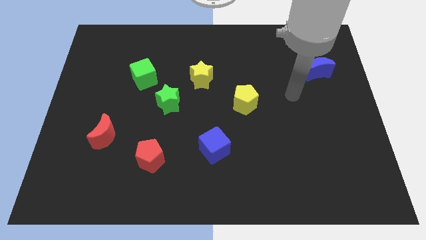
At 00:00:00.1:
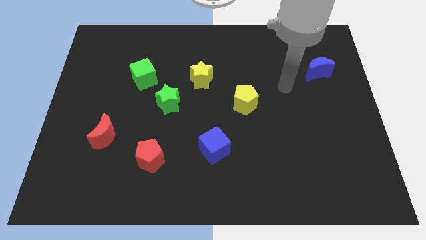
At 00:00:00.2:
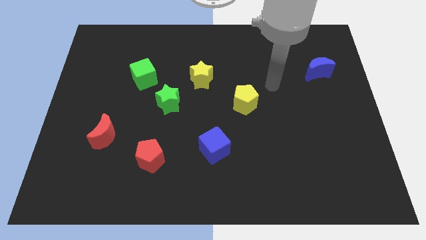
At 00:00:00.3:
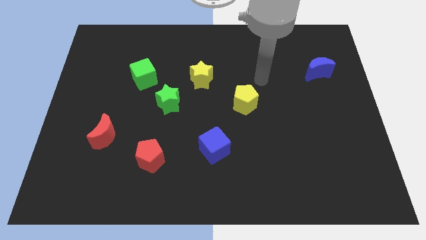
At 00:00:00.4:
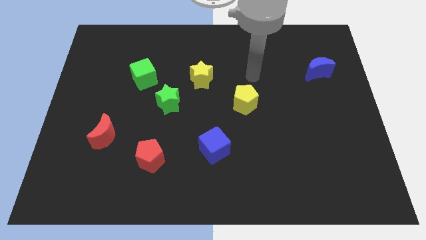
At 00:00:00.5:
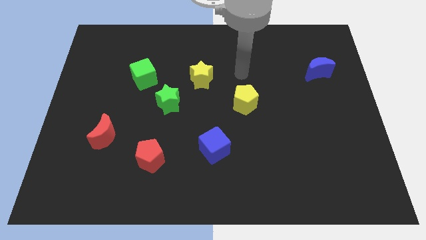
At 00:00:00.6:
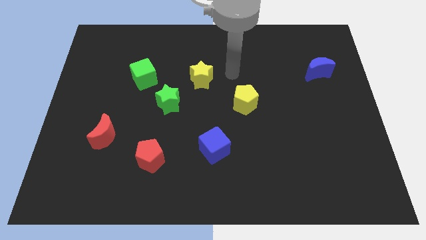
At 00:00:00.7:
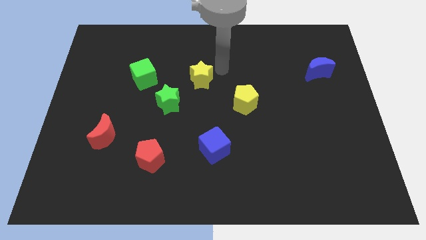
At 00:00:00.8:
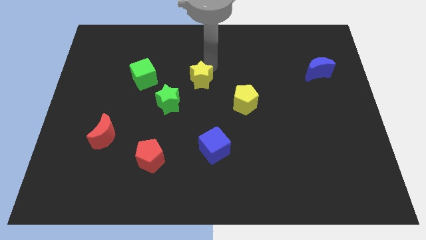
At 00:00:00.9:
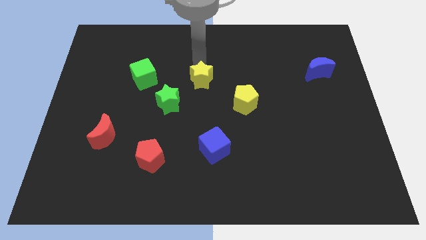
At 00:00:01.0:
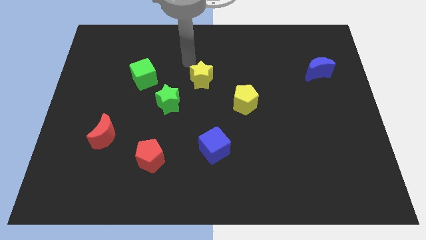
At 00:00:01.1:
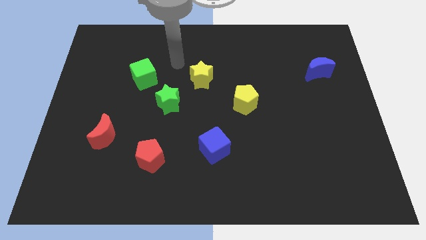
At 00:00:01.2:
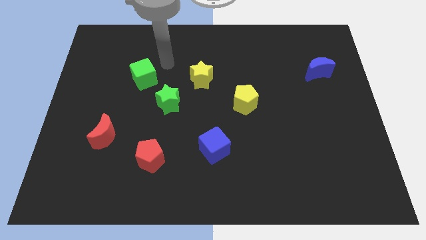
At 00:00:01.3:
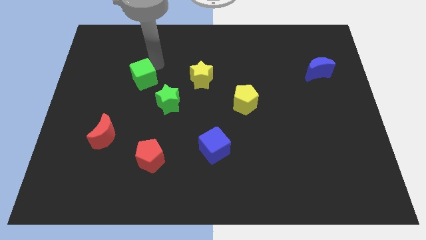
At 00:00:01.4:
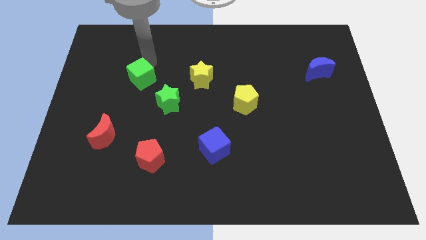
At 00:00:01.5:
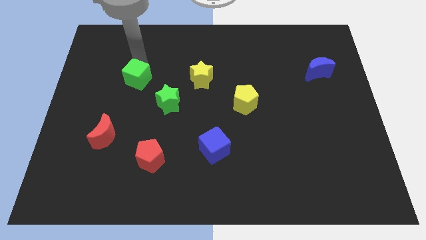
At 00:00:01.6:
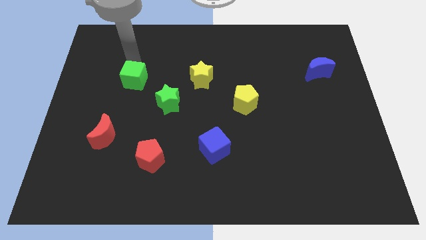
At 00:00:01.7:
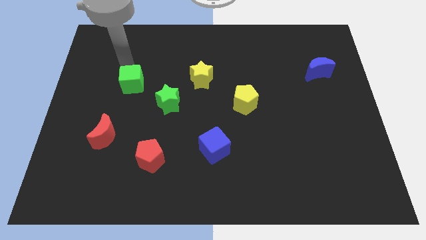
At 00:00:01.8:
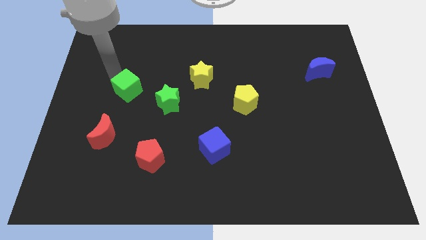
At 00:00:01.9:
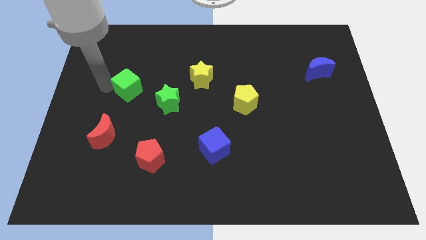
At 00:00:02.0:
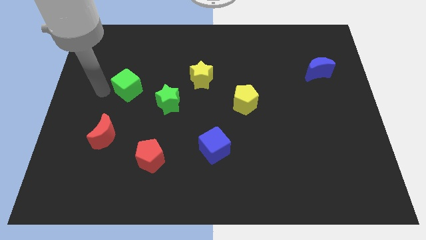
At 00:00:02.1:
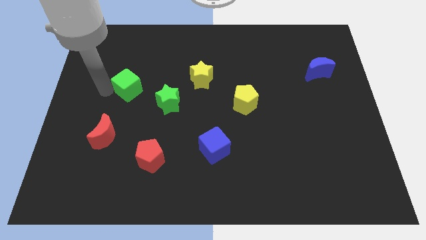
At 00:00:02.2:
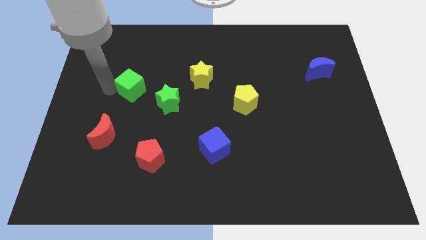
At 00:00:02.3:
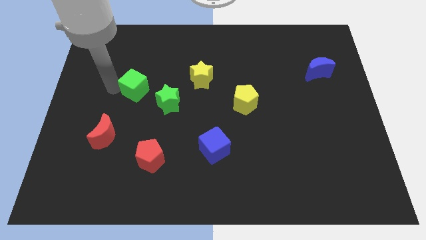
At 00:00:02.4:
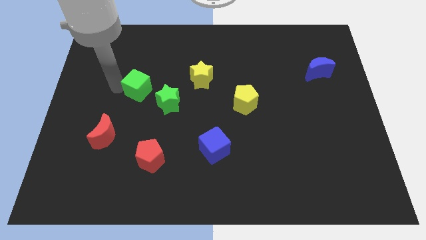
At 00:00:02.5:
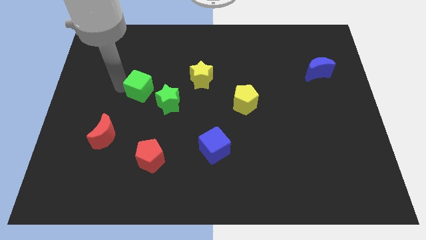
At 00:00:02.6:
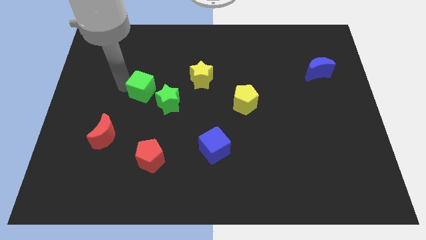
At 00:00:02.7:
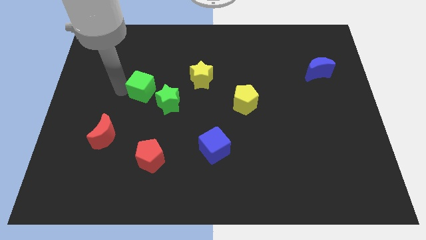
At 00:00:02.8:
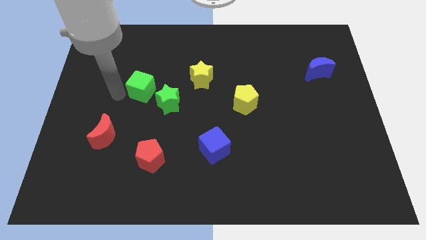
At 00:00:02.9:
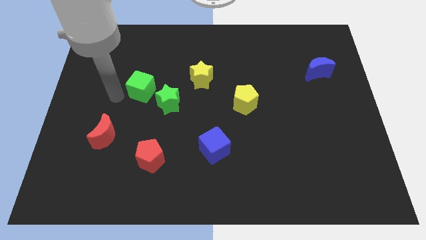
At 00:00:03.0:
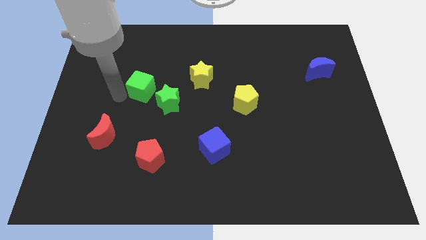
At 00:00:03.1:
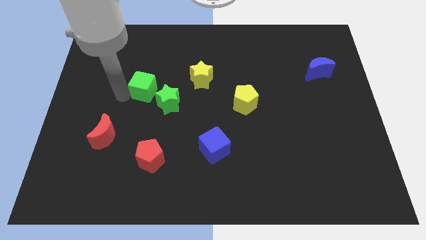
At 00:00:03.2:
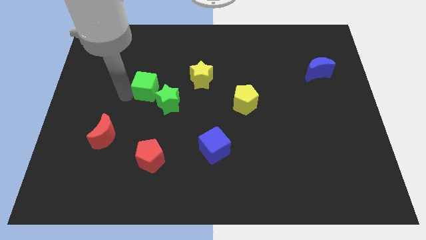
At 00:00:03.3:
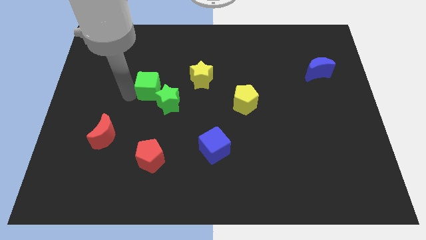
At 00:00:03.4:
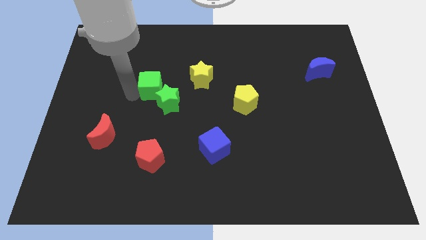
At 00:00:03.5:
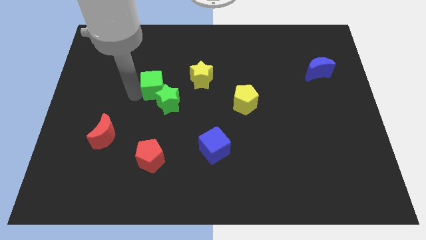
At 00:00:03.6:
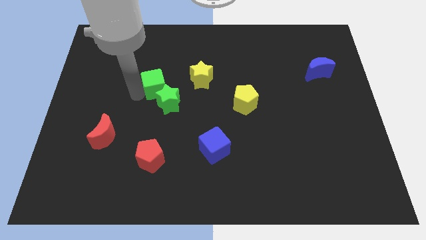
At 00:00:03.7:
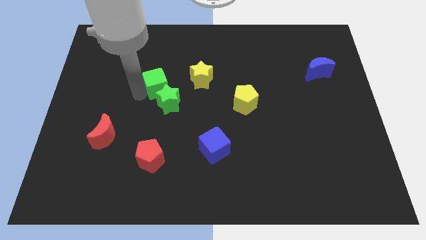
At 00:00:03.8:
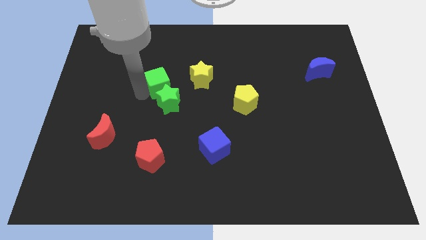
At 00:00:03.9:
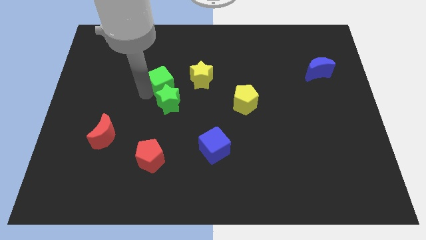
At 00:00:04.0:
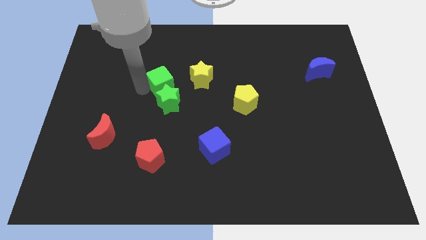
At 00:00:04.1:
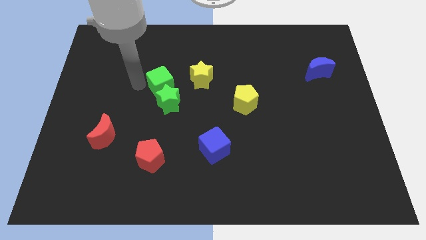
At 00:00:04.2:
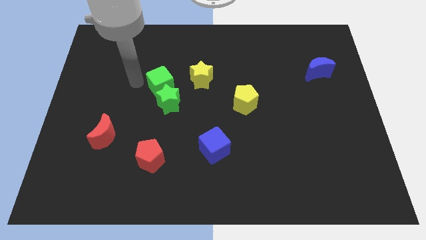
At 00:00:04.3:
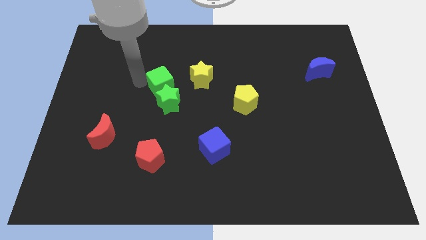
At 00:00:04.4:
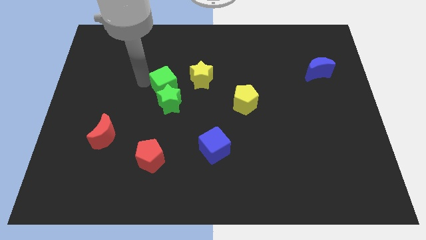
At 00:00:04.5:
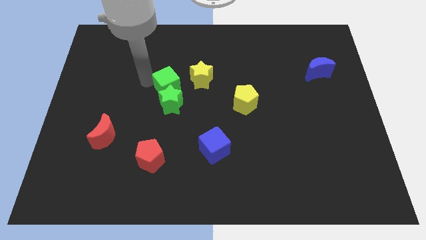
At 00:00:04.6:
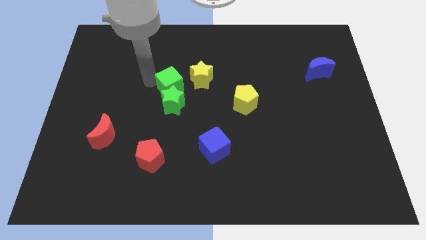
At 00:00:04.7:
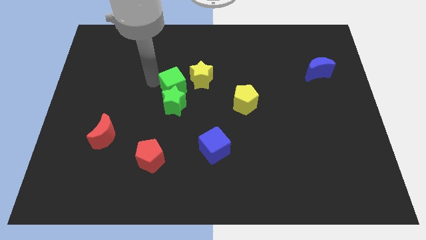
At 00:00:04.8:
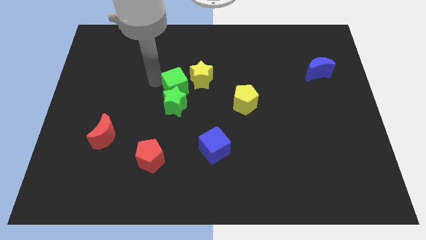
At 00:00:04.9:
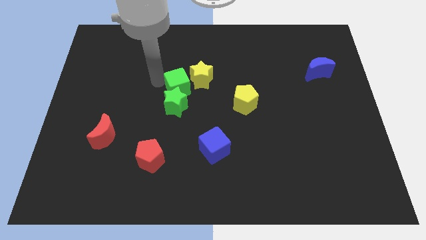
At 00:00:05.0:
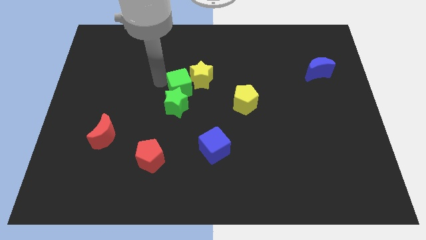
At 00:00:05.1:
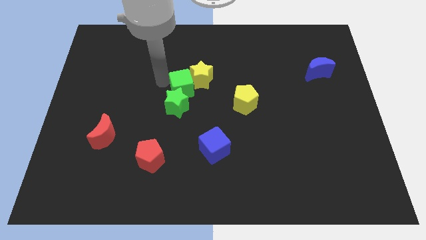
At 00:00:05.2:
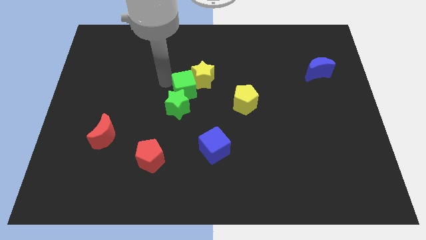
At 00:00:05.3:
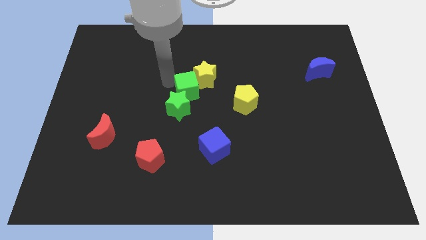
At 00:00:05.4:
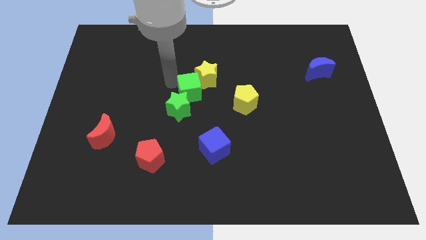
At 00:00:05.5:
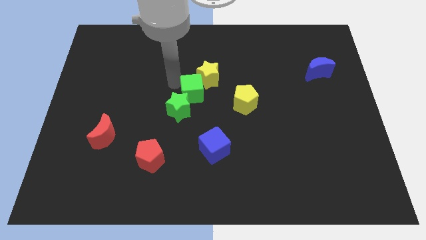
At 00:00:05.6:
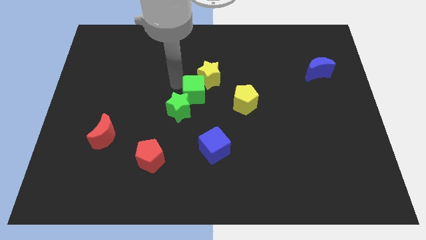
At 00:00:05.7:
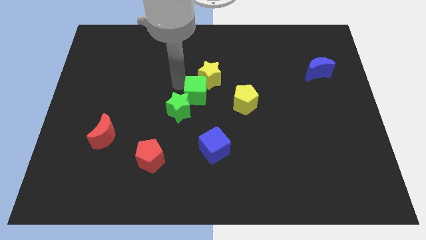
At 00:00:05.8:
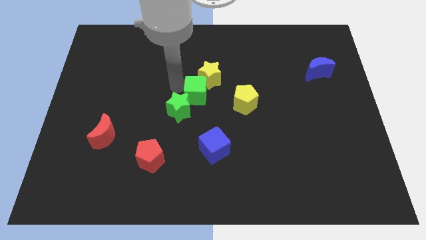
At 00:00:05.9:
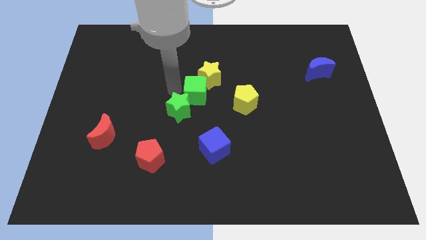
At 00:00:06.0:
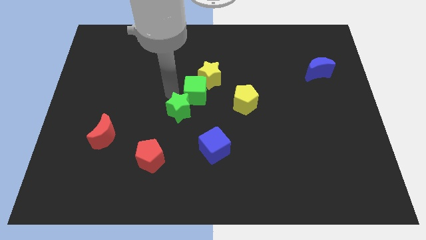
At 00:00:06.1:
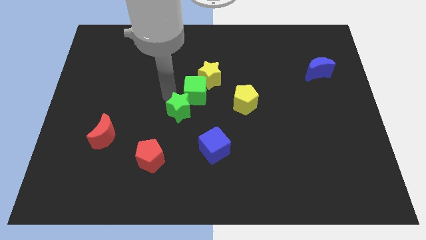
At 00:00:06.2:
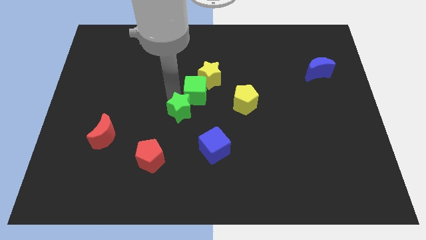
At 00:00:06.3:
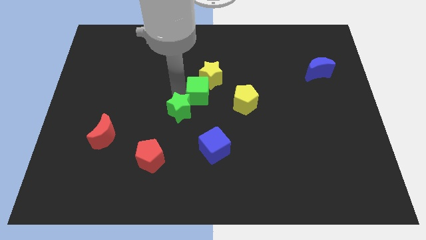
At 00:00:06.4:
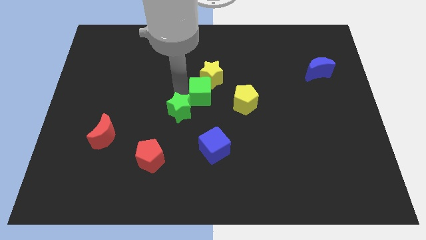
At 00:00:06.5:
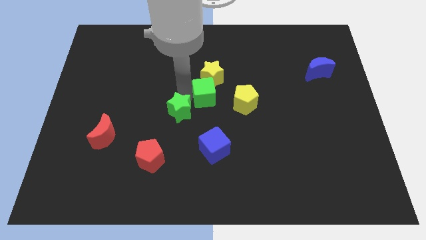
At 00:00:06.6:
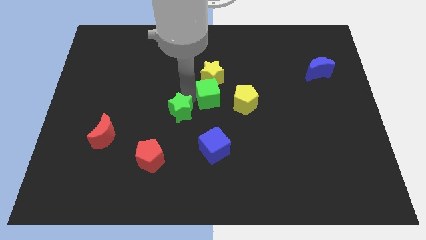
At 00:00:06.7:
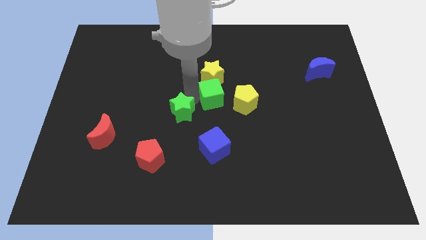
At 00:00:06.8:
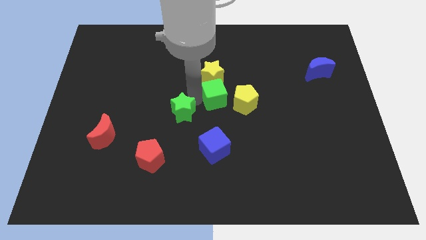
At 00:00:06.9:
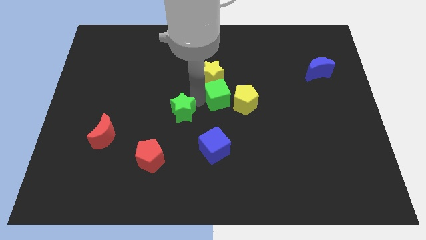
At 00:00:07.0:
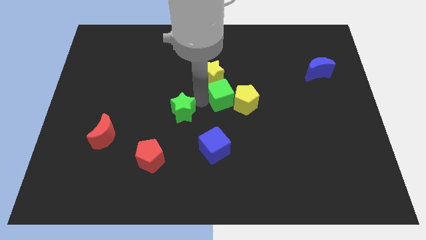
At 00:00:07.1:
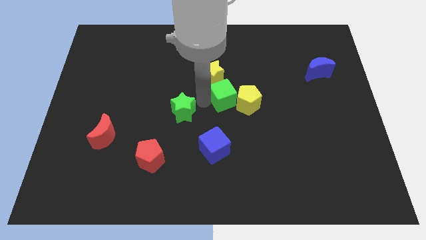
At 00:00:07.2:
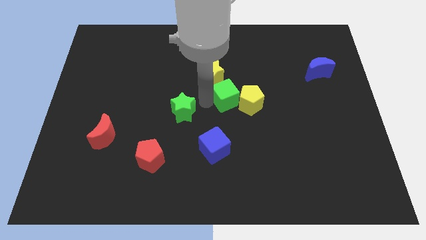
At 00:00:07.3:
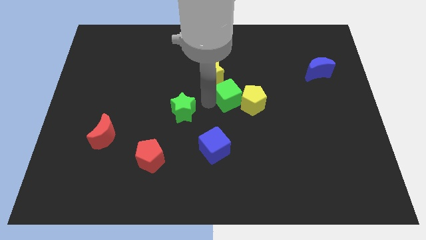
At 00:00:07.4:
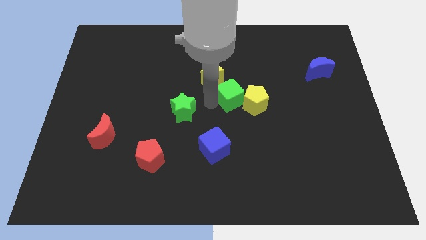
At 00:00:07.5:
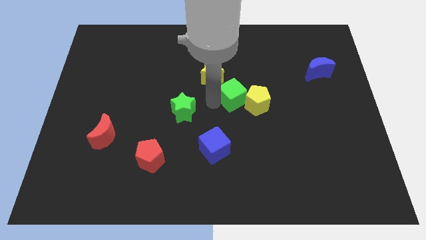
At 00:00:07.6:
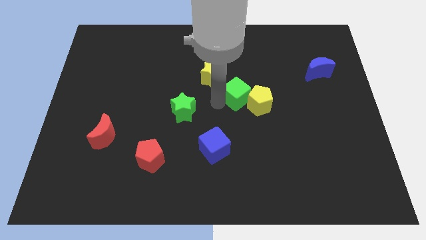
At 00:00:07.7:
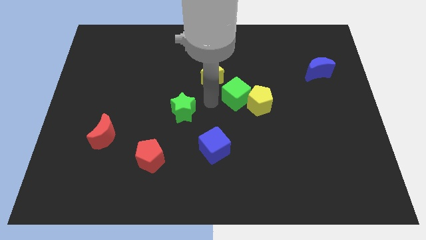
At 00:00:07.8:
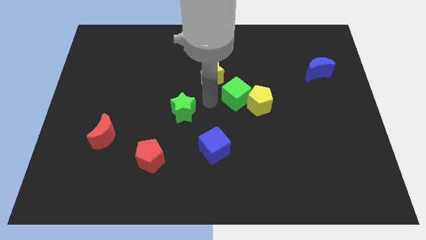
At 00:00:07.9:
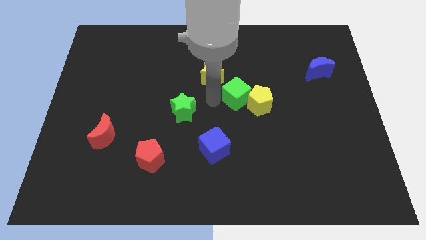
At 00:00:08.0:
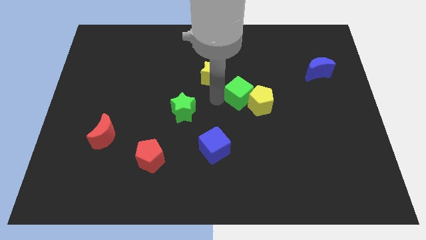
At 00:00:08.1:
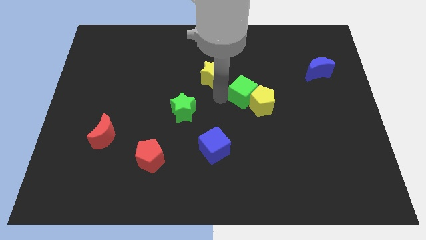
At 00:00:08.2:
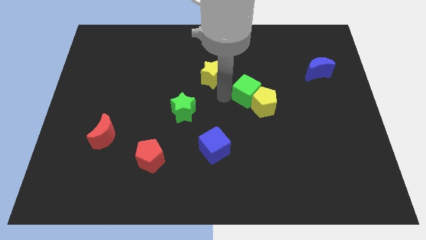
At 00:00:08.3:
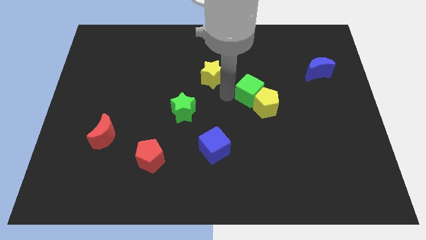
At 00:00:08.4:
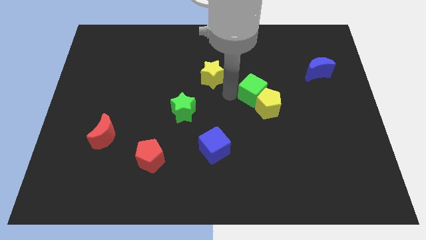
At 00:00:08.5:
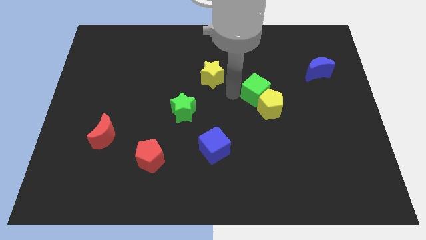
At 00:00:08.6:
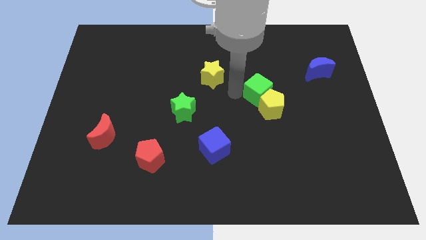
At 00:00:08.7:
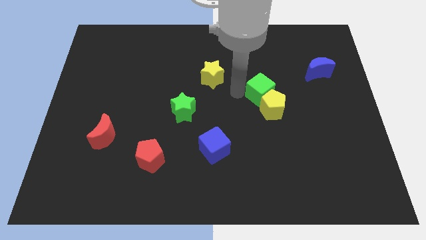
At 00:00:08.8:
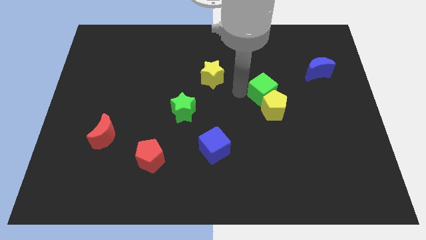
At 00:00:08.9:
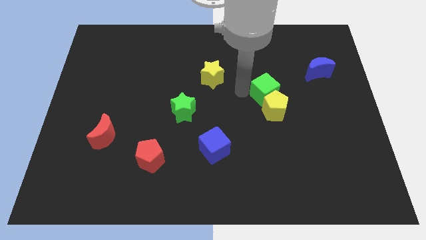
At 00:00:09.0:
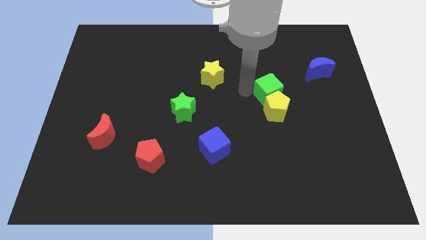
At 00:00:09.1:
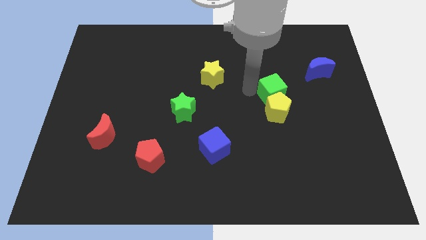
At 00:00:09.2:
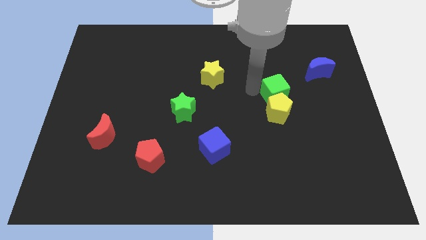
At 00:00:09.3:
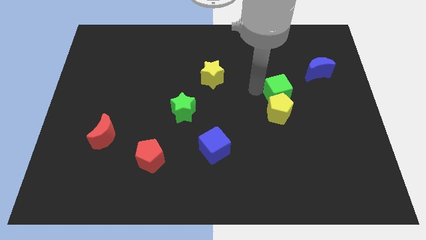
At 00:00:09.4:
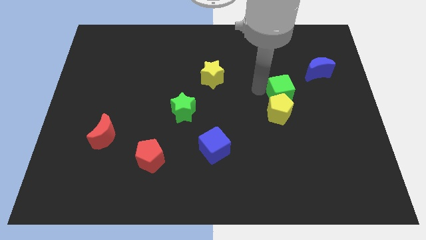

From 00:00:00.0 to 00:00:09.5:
slide the green cube to the bottom left side of the blue moon
